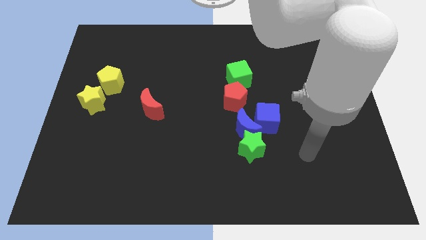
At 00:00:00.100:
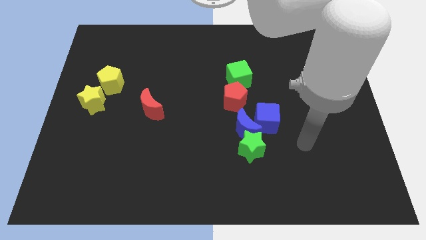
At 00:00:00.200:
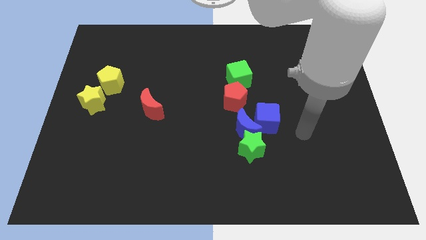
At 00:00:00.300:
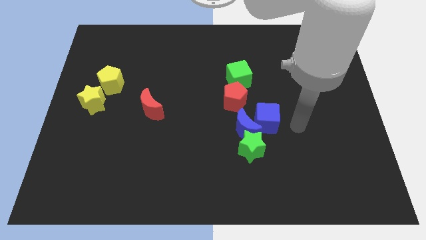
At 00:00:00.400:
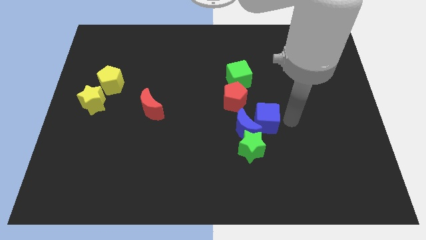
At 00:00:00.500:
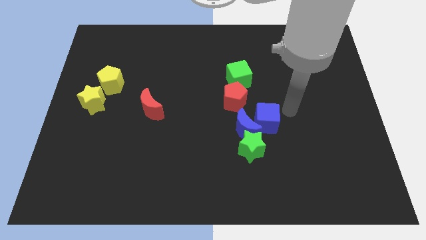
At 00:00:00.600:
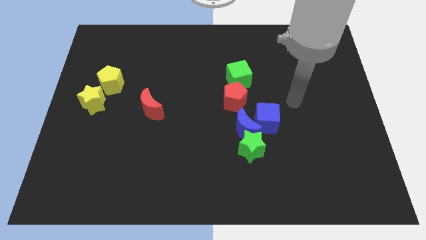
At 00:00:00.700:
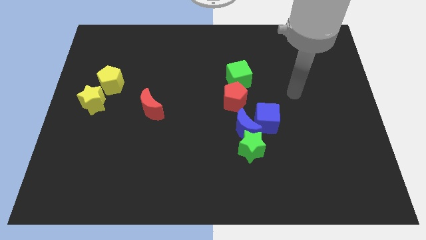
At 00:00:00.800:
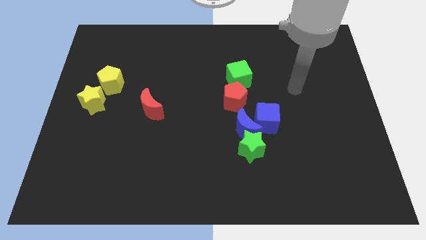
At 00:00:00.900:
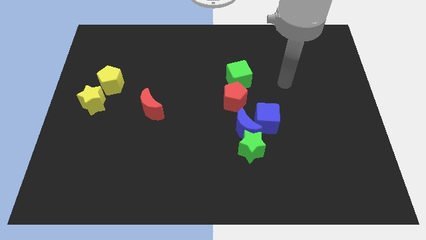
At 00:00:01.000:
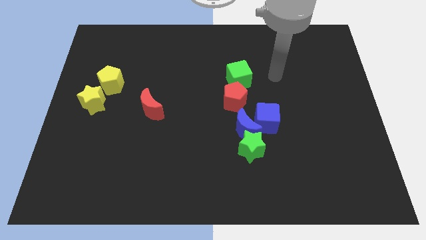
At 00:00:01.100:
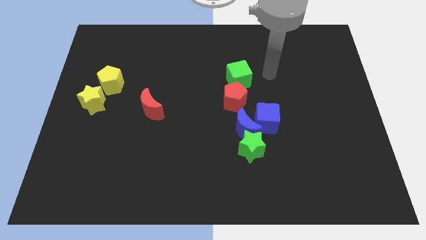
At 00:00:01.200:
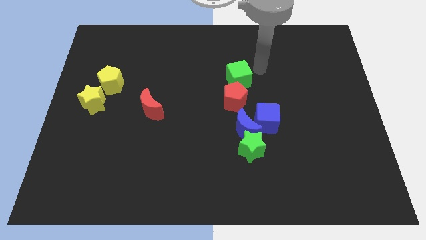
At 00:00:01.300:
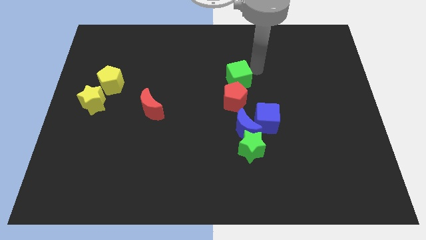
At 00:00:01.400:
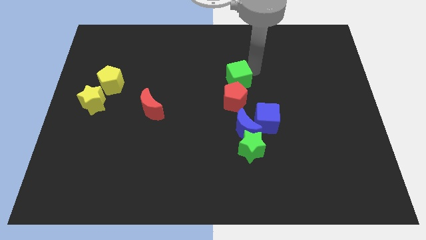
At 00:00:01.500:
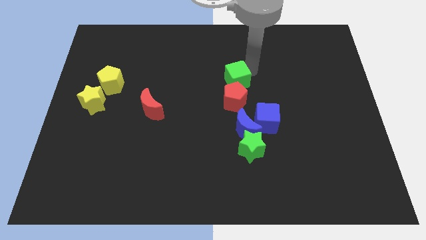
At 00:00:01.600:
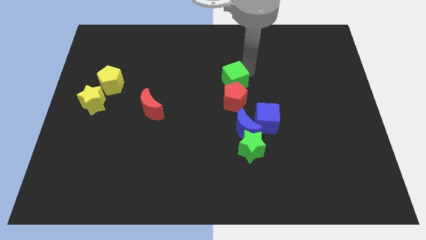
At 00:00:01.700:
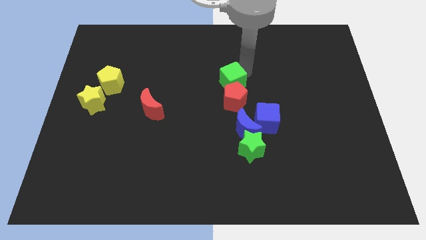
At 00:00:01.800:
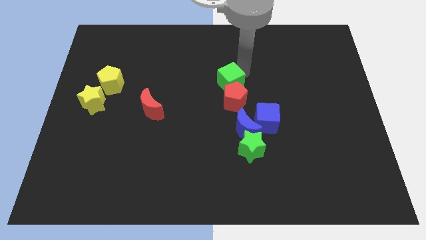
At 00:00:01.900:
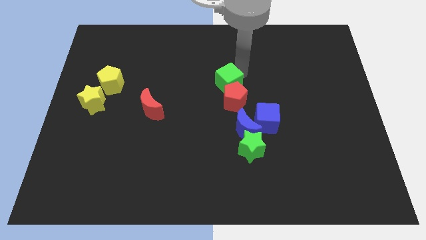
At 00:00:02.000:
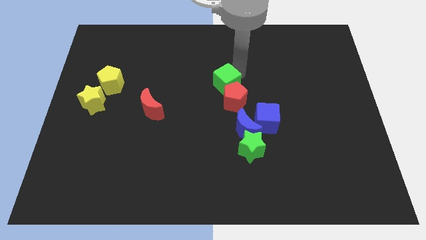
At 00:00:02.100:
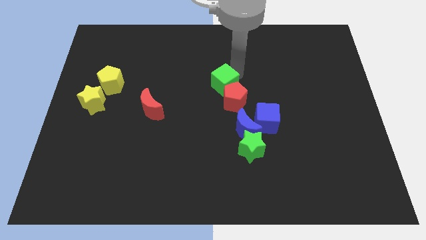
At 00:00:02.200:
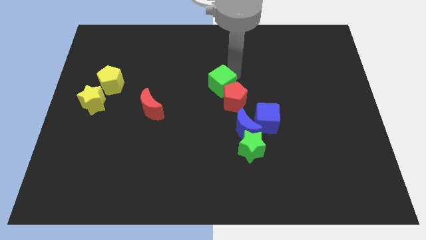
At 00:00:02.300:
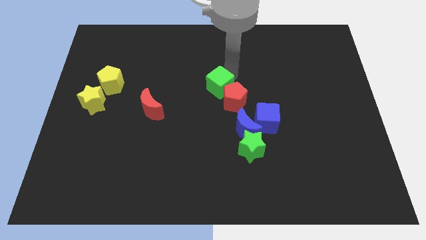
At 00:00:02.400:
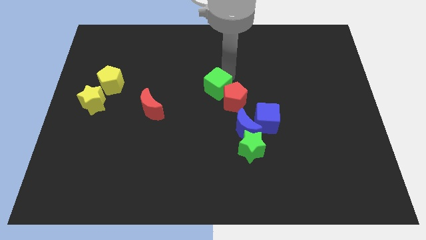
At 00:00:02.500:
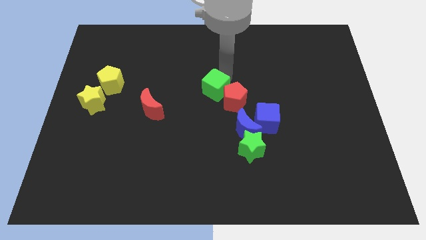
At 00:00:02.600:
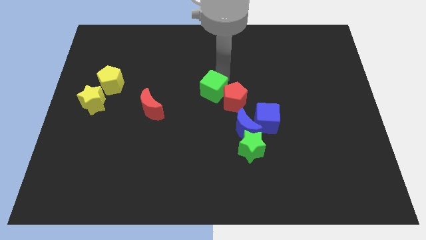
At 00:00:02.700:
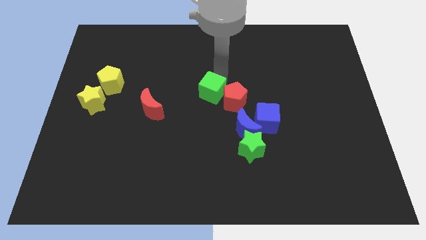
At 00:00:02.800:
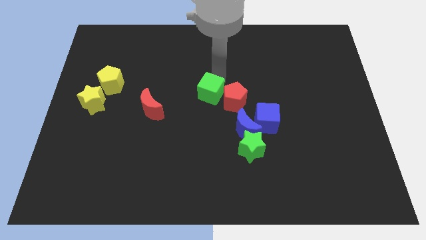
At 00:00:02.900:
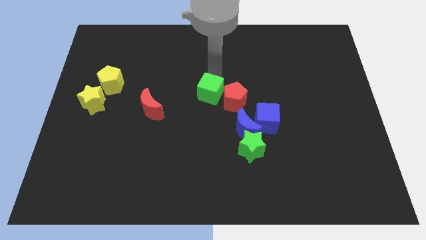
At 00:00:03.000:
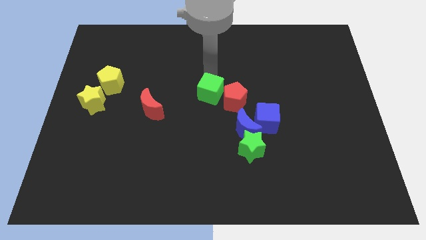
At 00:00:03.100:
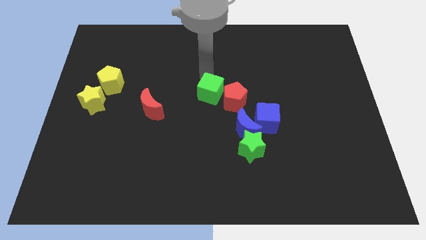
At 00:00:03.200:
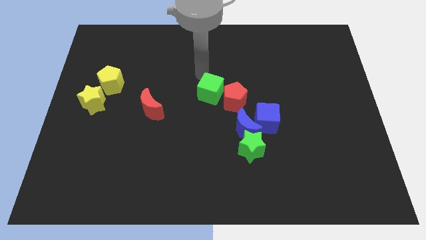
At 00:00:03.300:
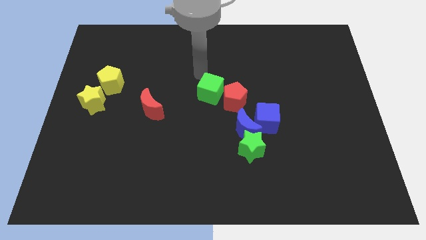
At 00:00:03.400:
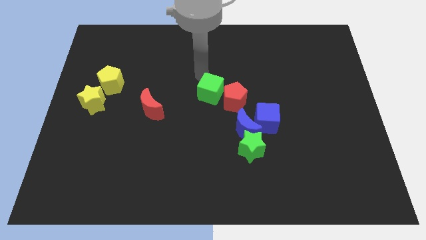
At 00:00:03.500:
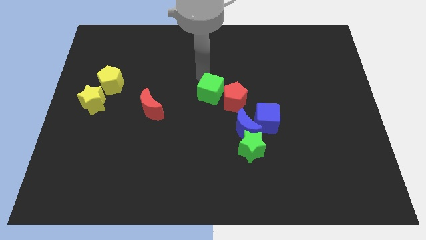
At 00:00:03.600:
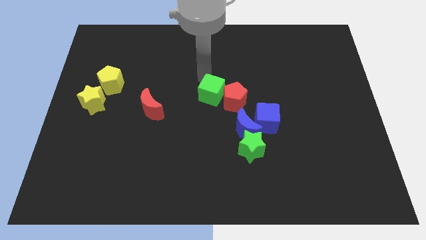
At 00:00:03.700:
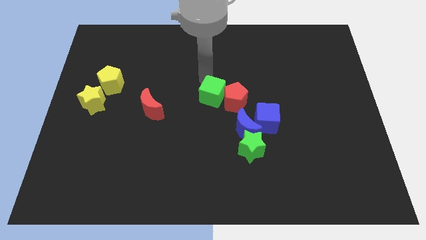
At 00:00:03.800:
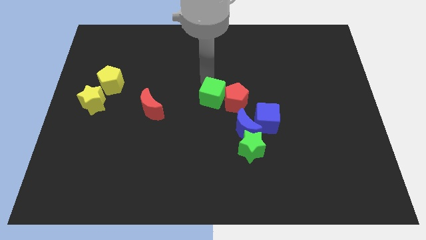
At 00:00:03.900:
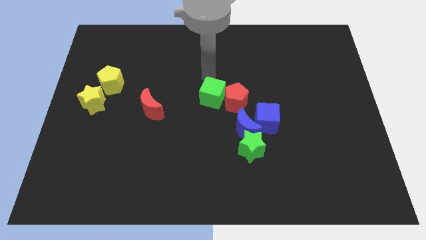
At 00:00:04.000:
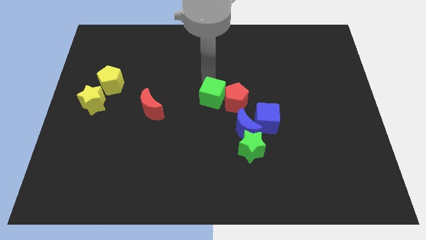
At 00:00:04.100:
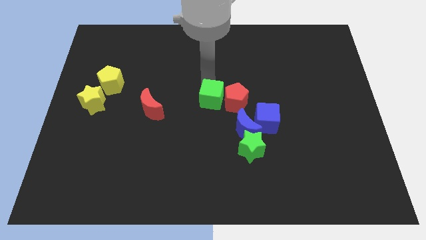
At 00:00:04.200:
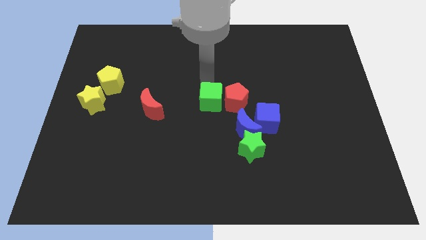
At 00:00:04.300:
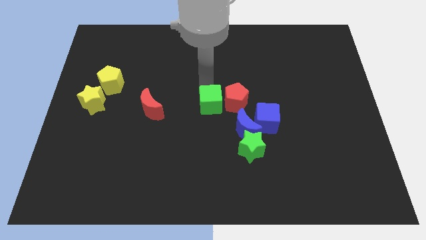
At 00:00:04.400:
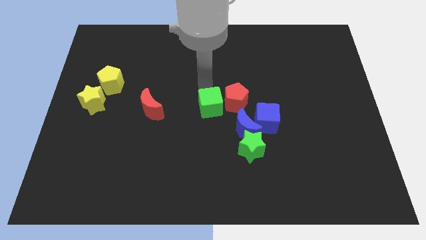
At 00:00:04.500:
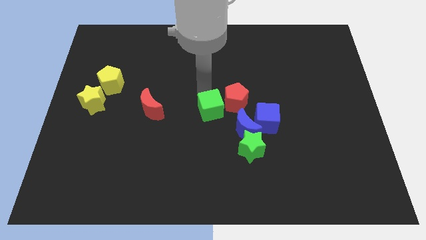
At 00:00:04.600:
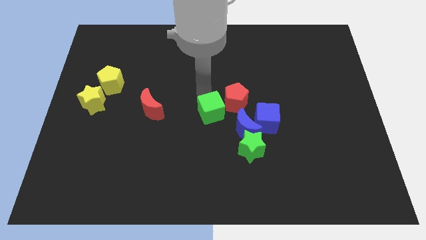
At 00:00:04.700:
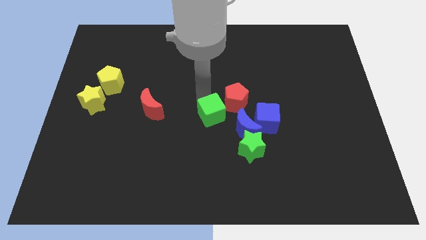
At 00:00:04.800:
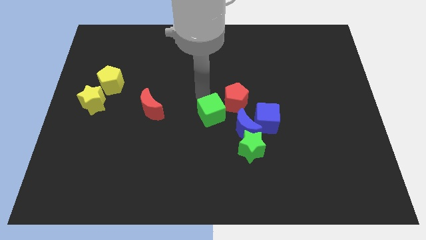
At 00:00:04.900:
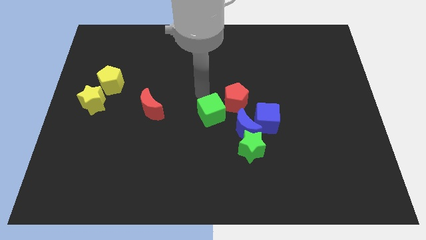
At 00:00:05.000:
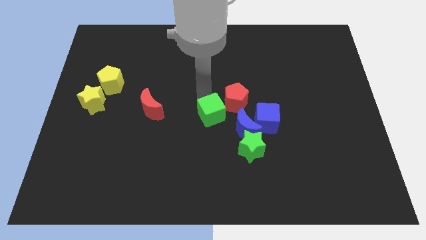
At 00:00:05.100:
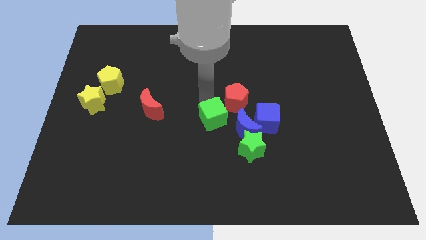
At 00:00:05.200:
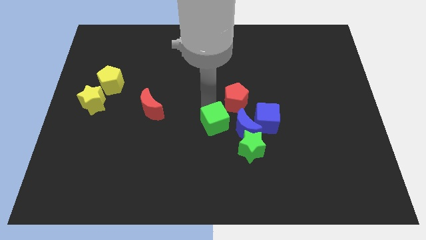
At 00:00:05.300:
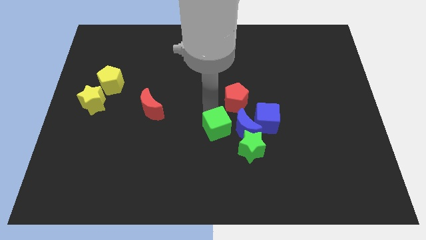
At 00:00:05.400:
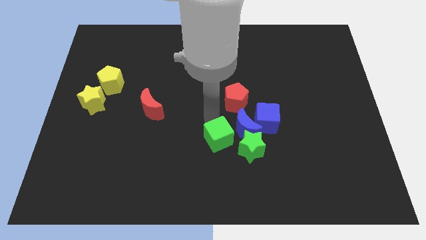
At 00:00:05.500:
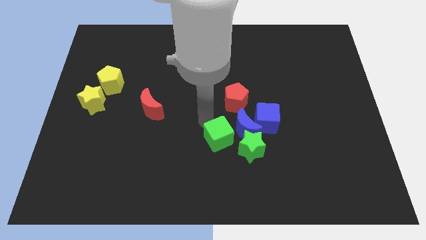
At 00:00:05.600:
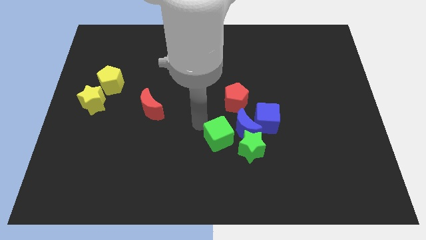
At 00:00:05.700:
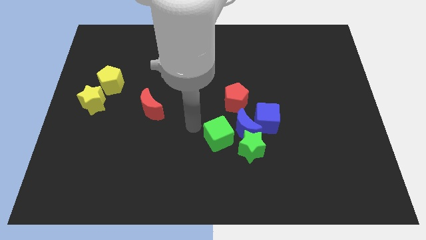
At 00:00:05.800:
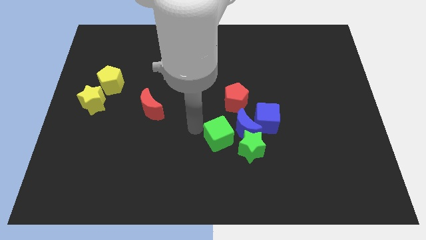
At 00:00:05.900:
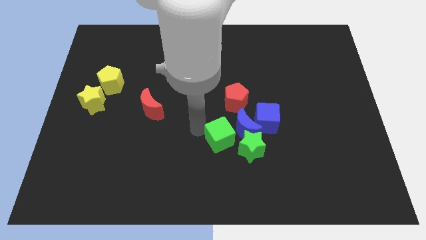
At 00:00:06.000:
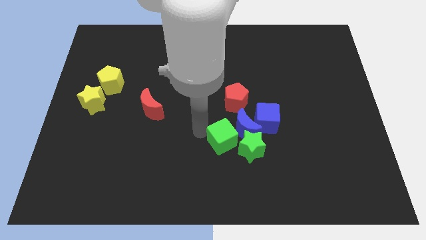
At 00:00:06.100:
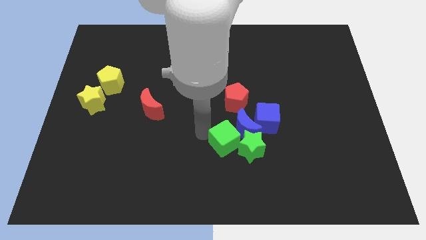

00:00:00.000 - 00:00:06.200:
slide the green cube towards the green star

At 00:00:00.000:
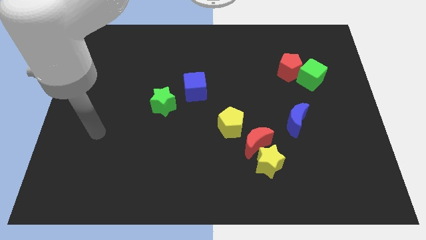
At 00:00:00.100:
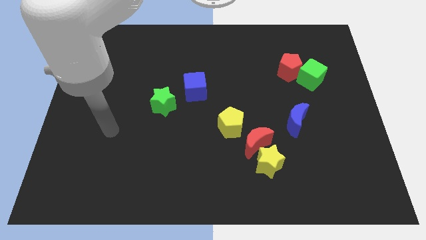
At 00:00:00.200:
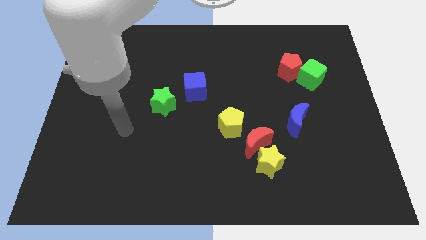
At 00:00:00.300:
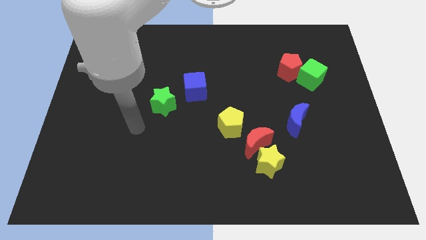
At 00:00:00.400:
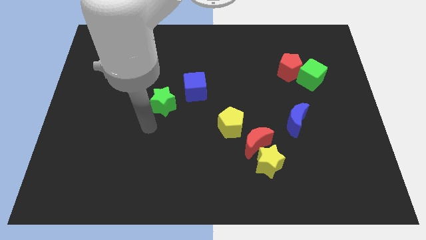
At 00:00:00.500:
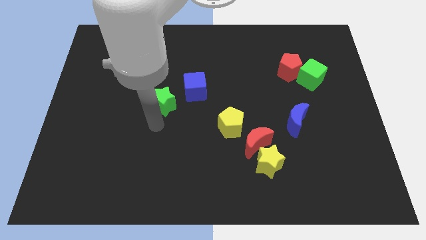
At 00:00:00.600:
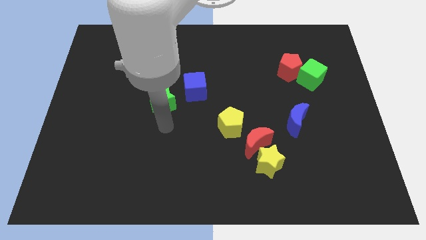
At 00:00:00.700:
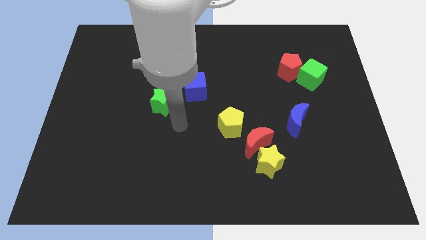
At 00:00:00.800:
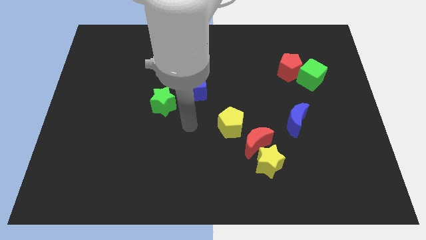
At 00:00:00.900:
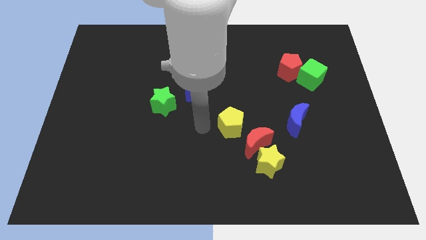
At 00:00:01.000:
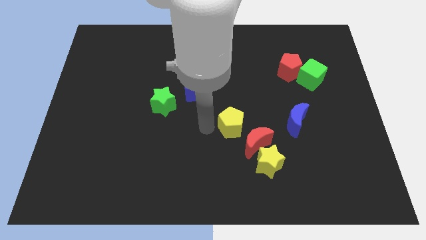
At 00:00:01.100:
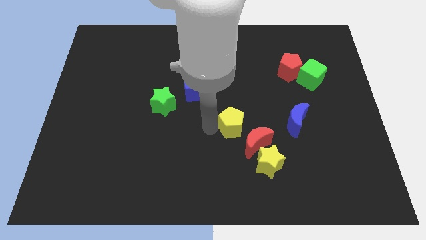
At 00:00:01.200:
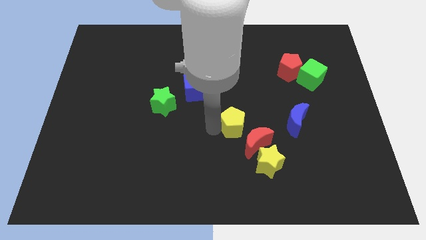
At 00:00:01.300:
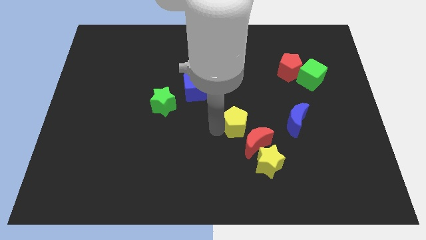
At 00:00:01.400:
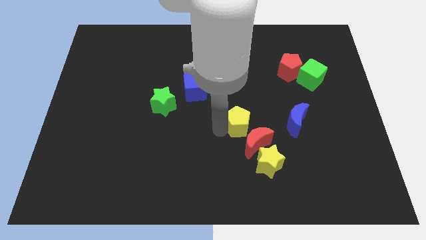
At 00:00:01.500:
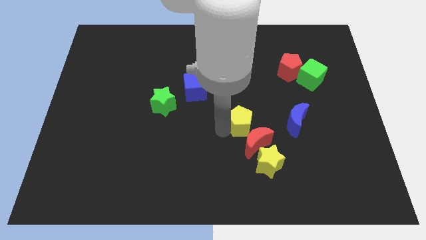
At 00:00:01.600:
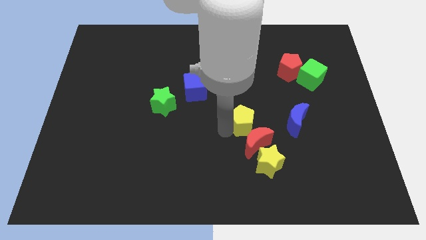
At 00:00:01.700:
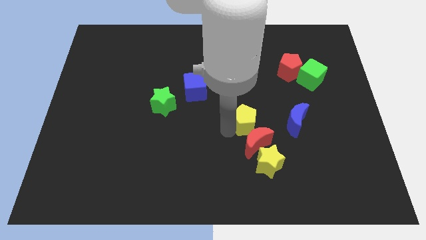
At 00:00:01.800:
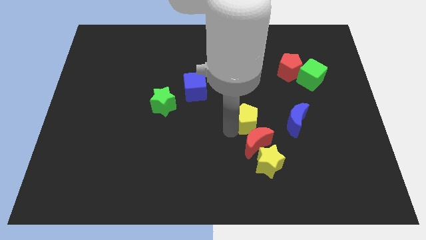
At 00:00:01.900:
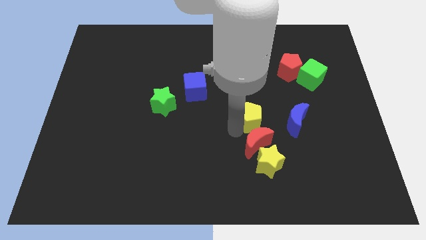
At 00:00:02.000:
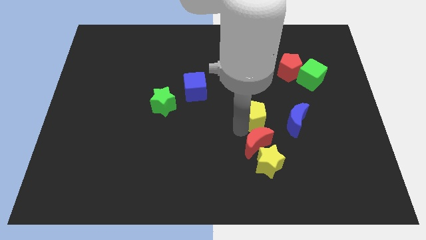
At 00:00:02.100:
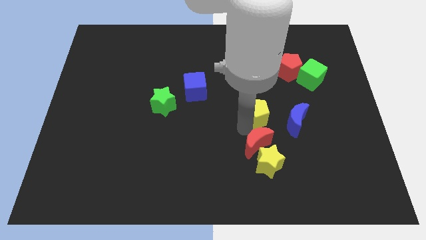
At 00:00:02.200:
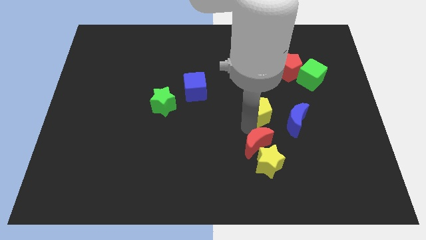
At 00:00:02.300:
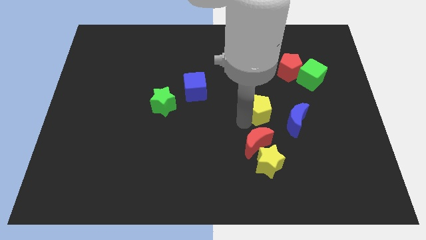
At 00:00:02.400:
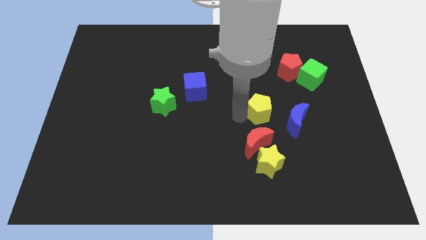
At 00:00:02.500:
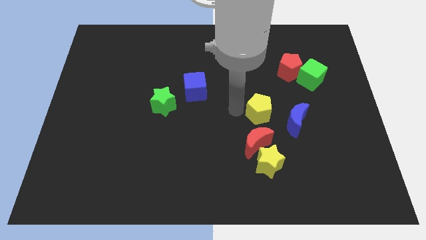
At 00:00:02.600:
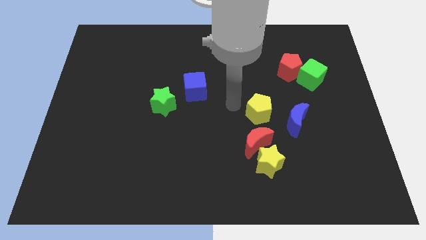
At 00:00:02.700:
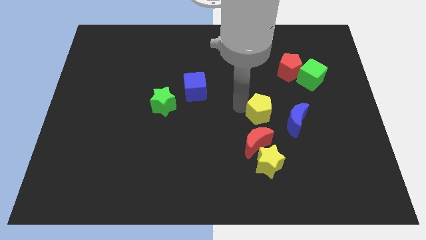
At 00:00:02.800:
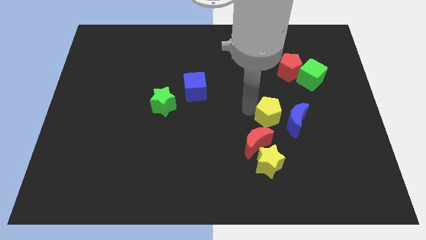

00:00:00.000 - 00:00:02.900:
put the yellow pentagon to the blue moon
